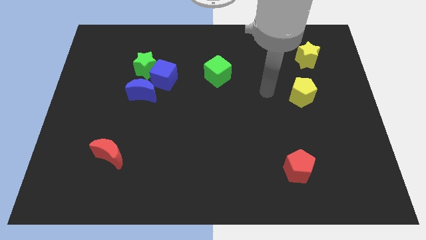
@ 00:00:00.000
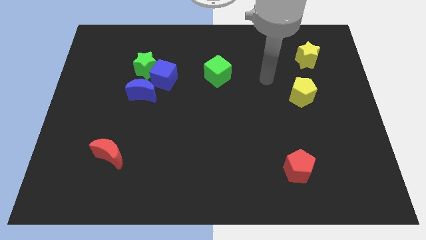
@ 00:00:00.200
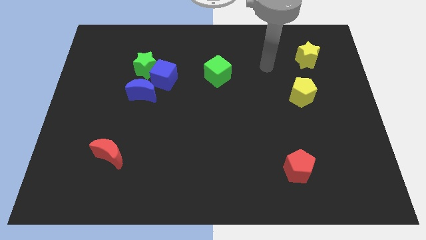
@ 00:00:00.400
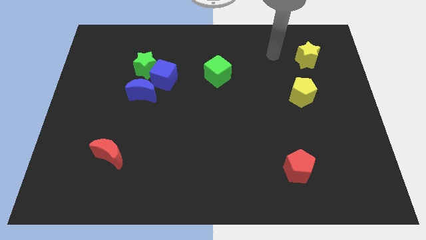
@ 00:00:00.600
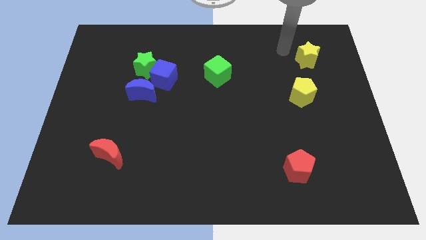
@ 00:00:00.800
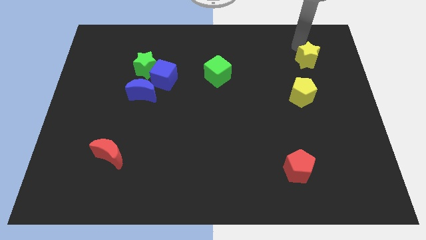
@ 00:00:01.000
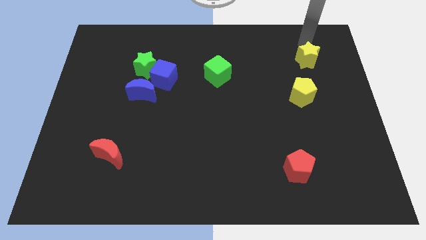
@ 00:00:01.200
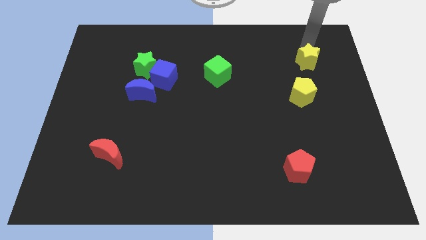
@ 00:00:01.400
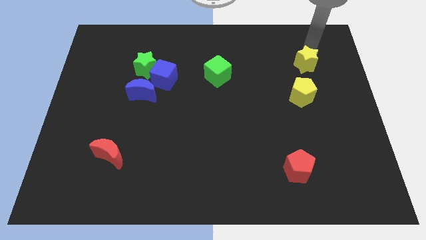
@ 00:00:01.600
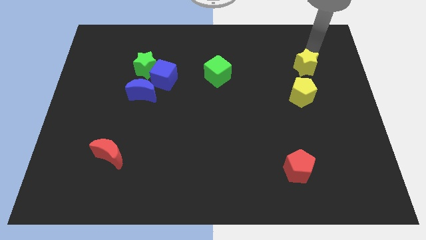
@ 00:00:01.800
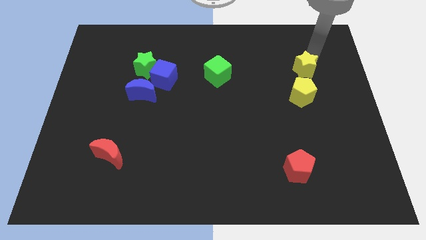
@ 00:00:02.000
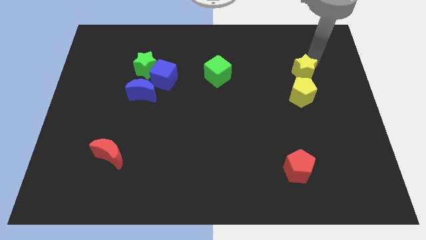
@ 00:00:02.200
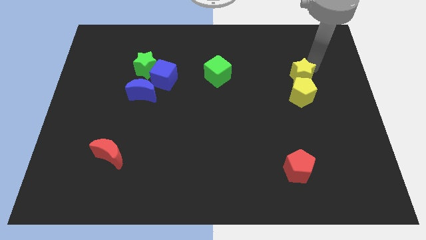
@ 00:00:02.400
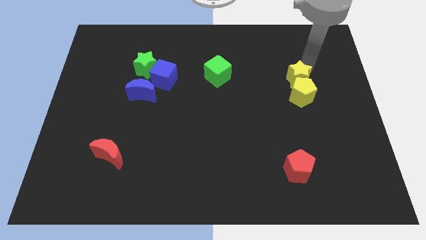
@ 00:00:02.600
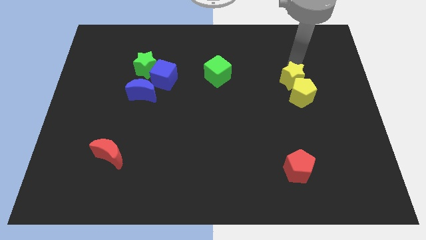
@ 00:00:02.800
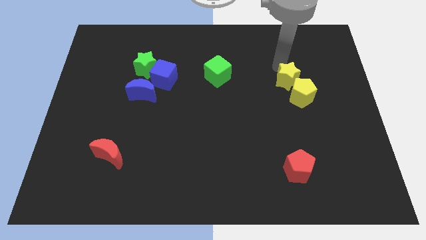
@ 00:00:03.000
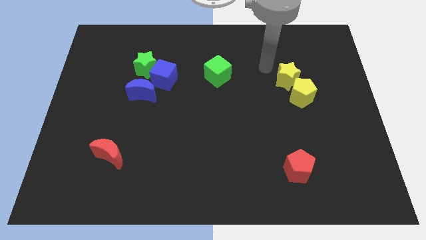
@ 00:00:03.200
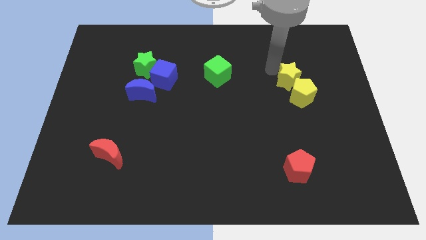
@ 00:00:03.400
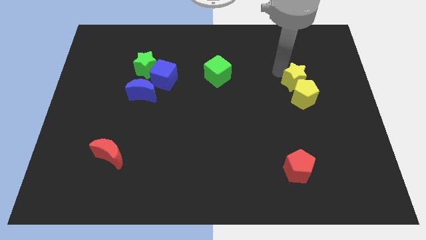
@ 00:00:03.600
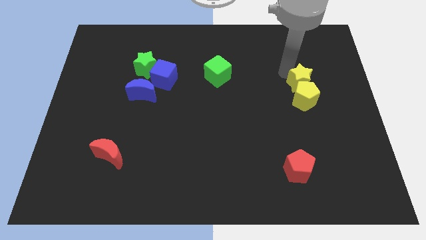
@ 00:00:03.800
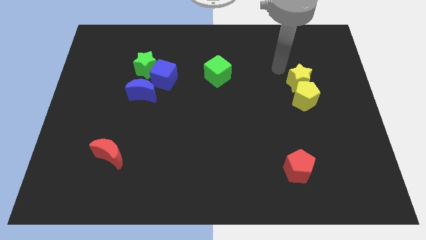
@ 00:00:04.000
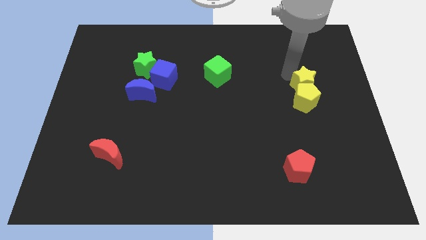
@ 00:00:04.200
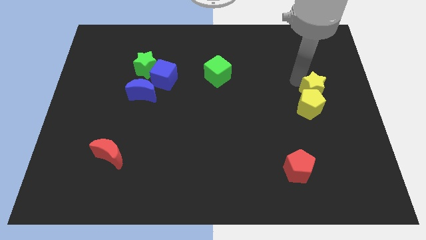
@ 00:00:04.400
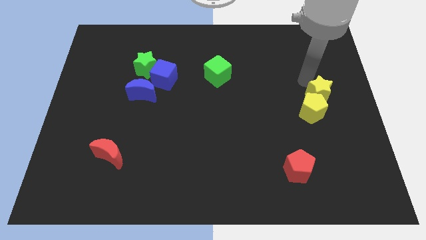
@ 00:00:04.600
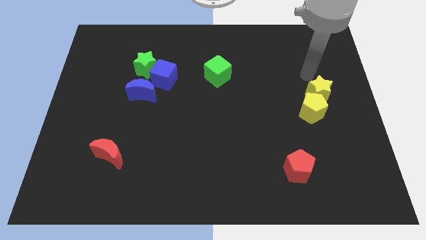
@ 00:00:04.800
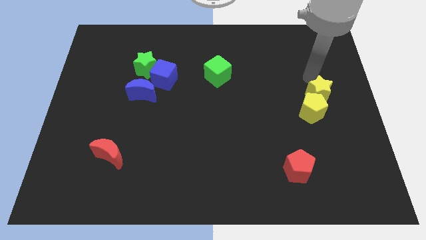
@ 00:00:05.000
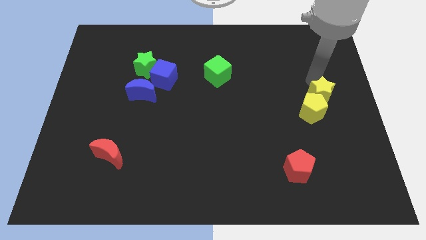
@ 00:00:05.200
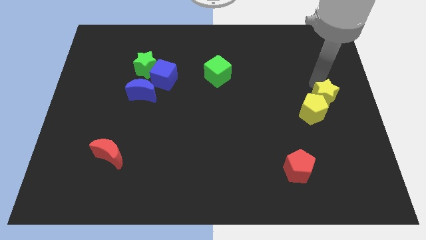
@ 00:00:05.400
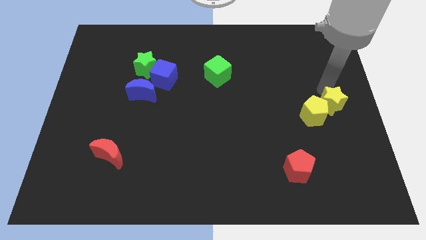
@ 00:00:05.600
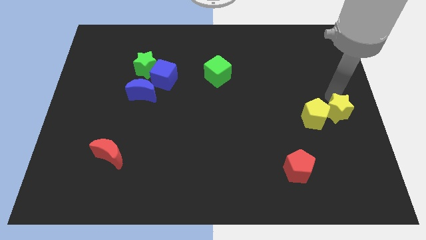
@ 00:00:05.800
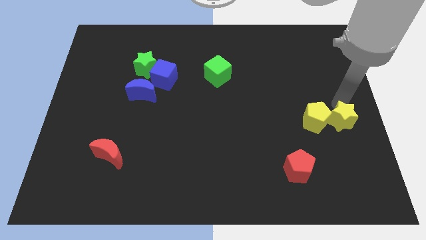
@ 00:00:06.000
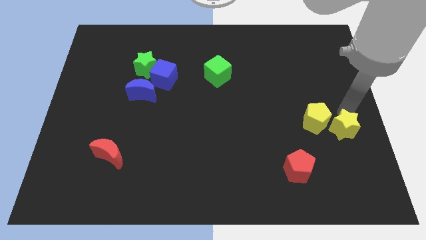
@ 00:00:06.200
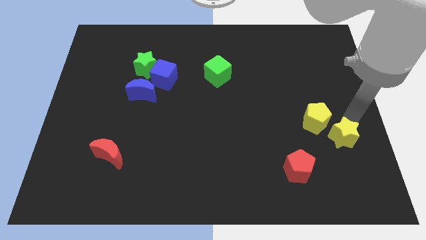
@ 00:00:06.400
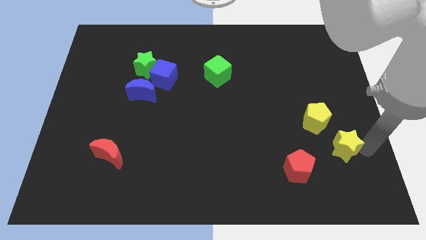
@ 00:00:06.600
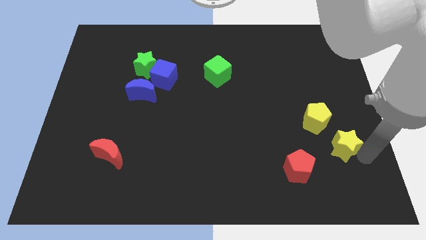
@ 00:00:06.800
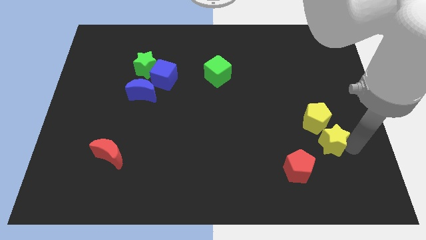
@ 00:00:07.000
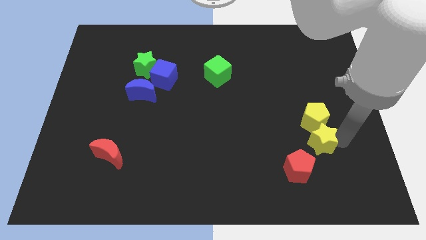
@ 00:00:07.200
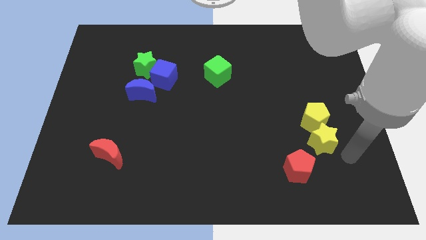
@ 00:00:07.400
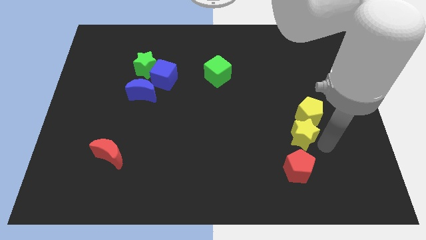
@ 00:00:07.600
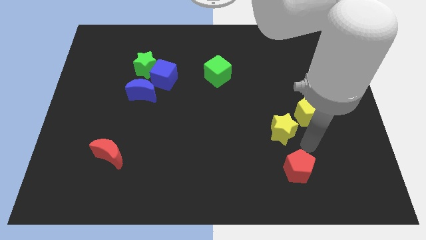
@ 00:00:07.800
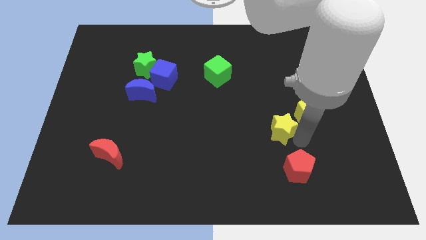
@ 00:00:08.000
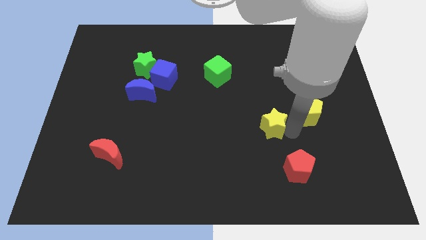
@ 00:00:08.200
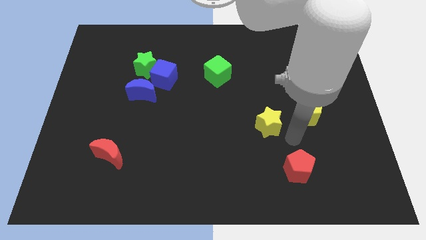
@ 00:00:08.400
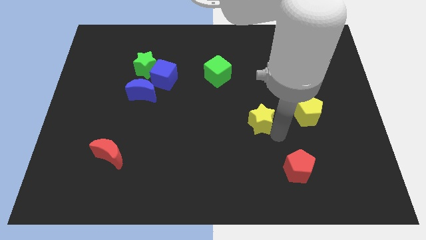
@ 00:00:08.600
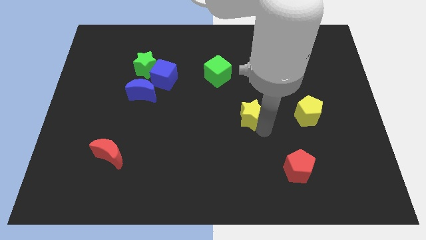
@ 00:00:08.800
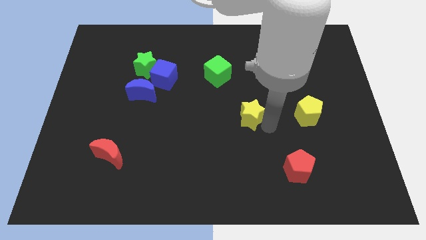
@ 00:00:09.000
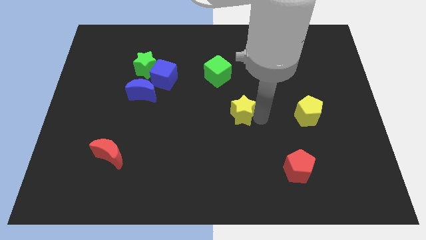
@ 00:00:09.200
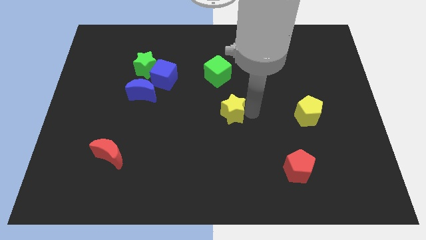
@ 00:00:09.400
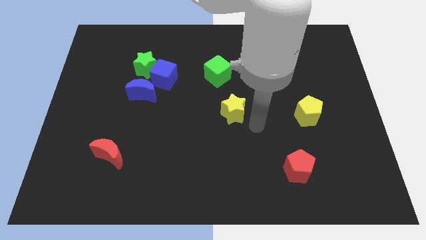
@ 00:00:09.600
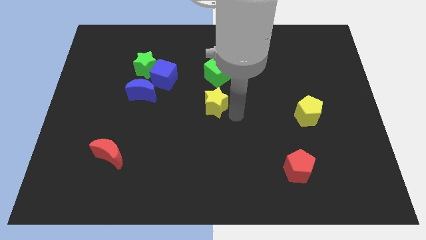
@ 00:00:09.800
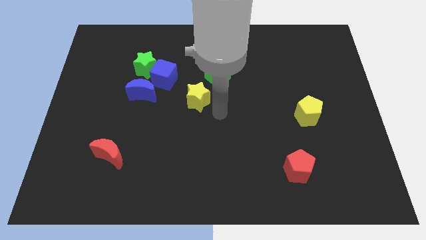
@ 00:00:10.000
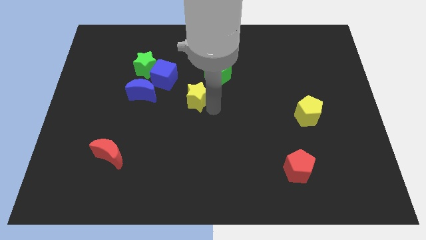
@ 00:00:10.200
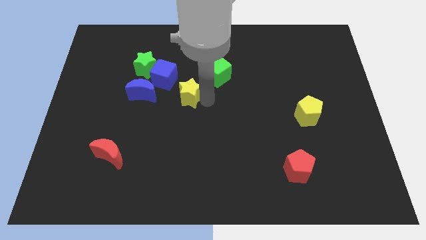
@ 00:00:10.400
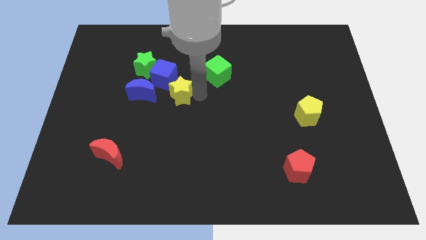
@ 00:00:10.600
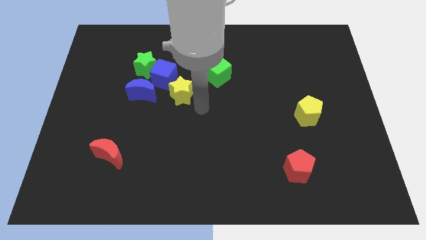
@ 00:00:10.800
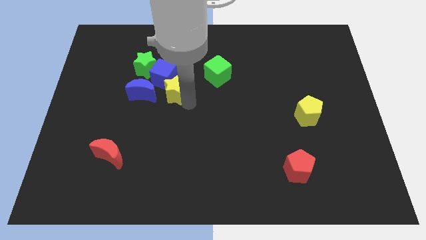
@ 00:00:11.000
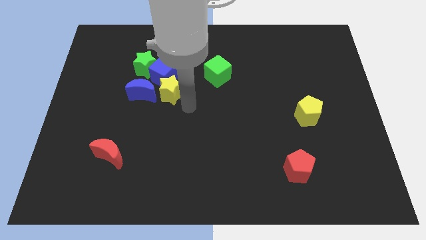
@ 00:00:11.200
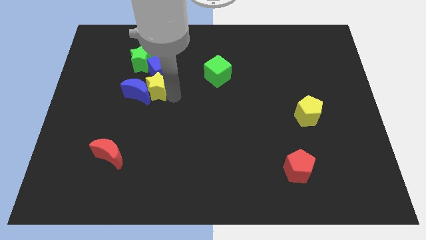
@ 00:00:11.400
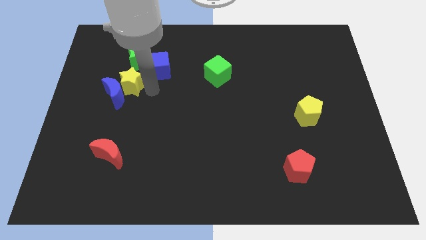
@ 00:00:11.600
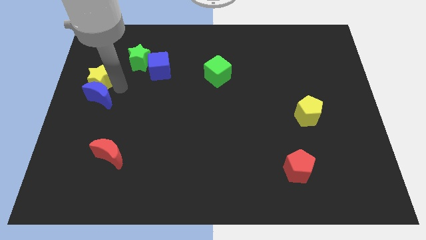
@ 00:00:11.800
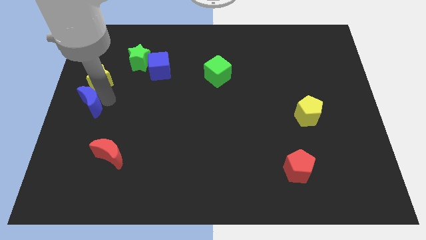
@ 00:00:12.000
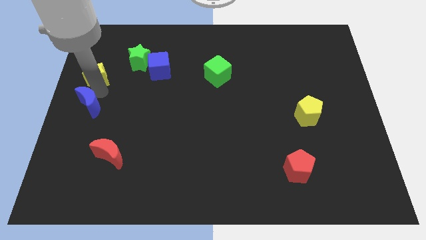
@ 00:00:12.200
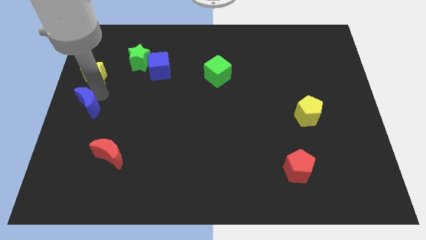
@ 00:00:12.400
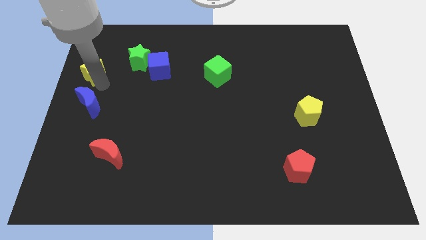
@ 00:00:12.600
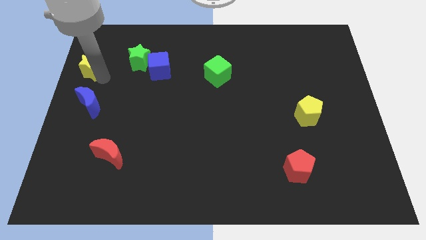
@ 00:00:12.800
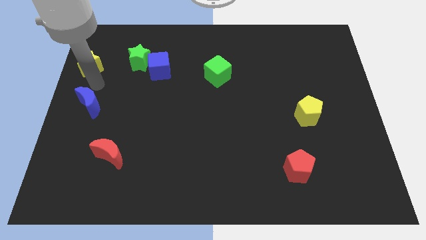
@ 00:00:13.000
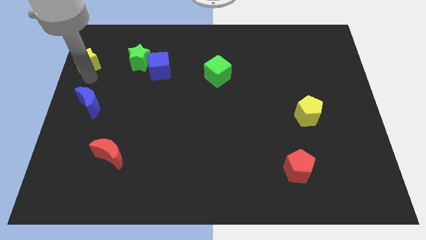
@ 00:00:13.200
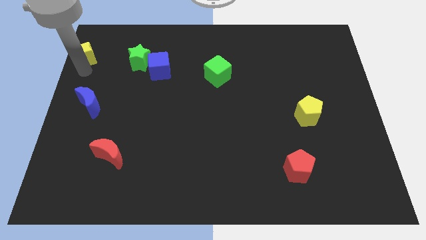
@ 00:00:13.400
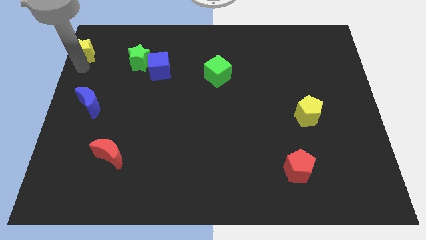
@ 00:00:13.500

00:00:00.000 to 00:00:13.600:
put the yellow star to the top left of the board
